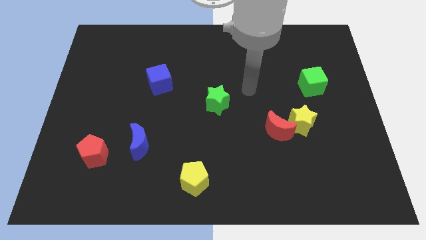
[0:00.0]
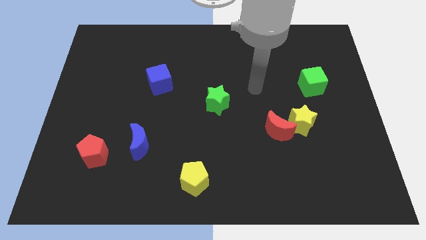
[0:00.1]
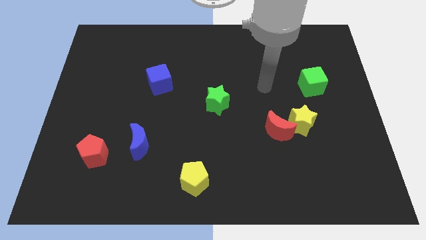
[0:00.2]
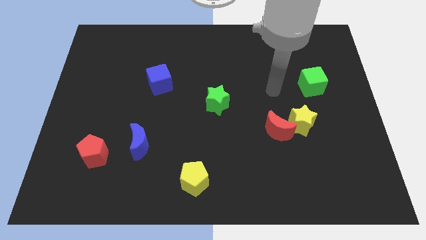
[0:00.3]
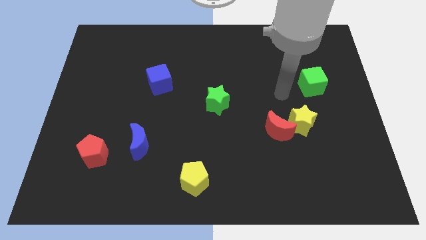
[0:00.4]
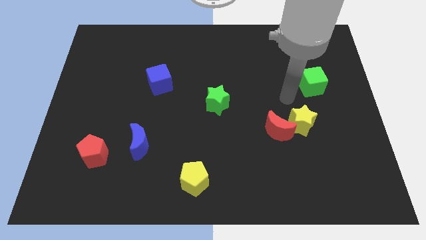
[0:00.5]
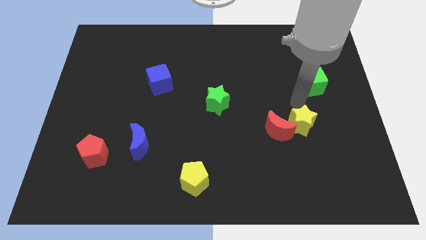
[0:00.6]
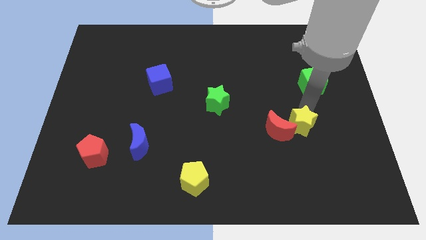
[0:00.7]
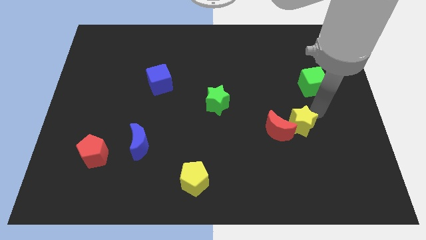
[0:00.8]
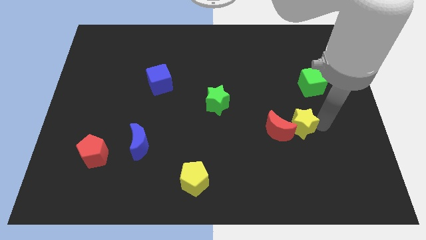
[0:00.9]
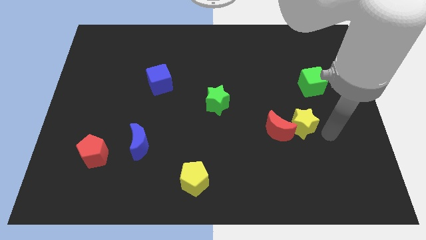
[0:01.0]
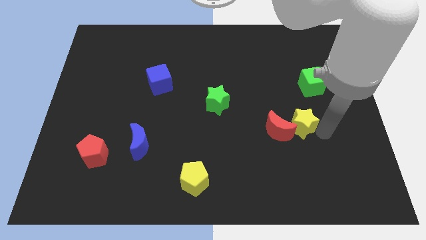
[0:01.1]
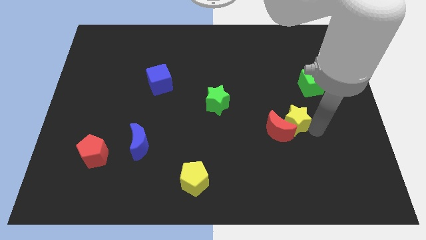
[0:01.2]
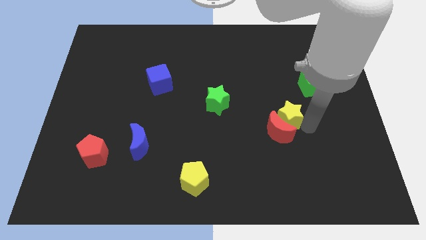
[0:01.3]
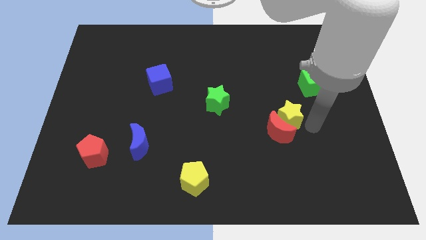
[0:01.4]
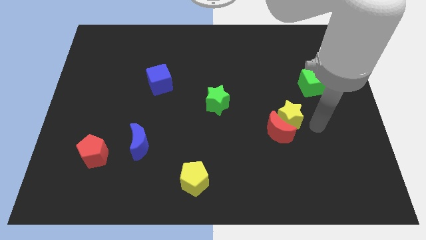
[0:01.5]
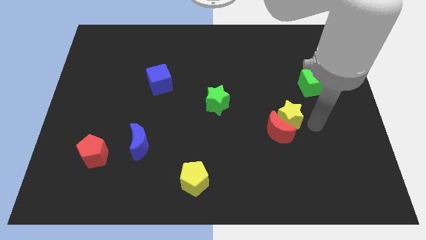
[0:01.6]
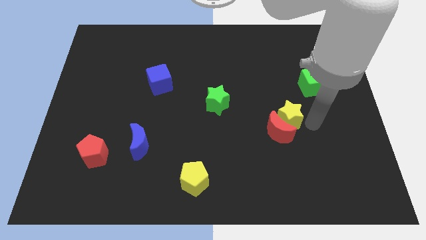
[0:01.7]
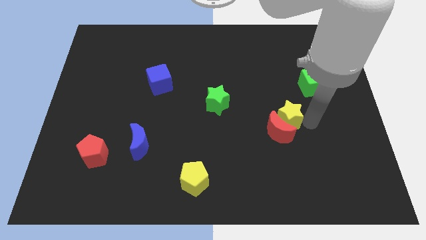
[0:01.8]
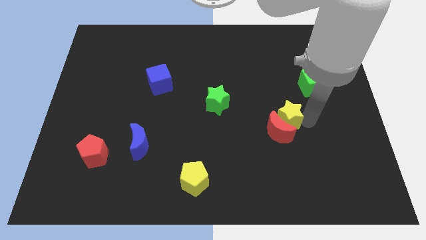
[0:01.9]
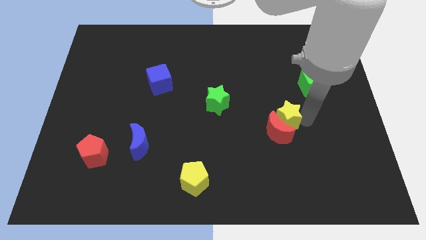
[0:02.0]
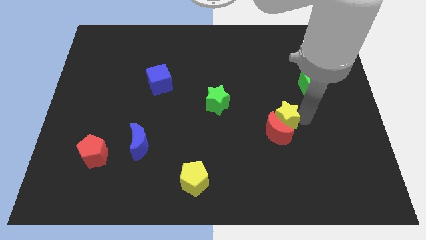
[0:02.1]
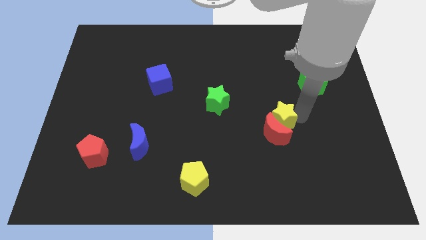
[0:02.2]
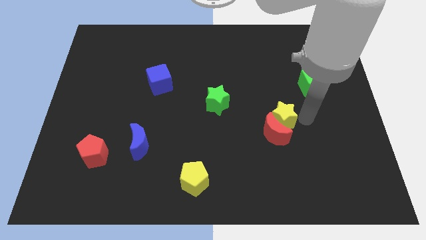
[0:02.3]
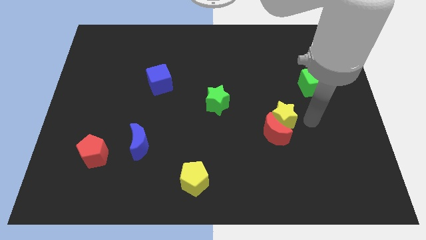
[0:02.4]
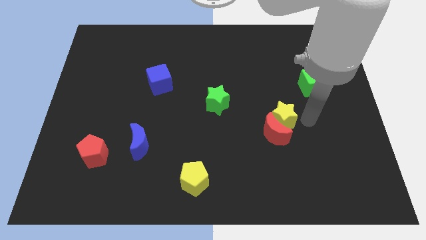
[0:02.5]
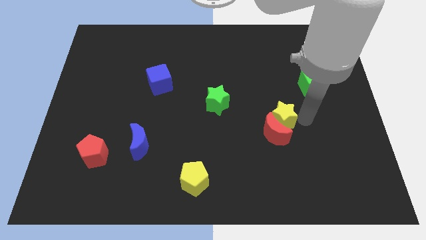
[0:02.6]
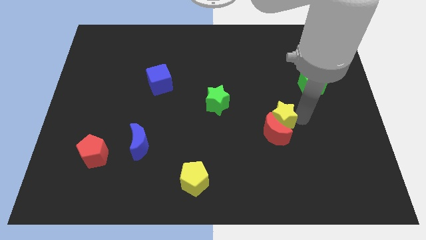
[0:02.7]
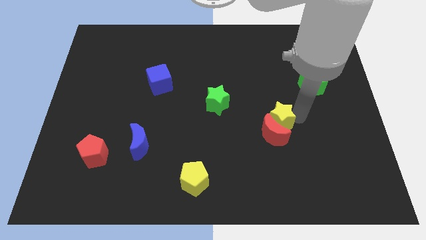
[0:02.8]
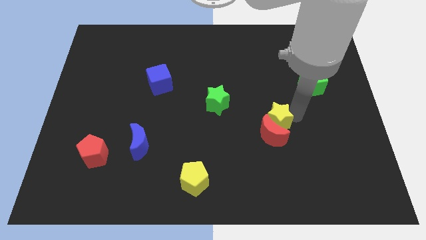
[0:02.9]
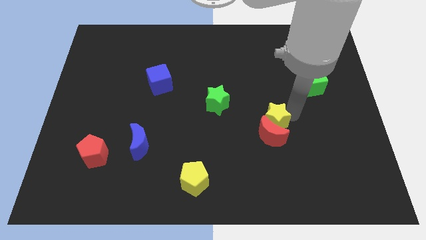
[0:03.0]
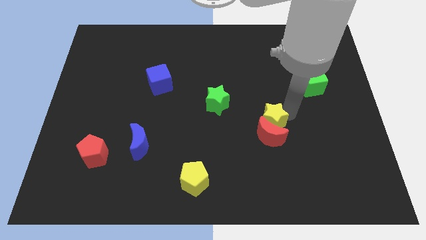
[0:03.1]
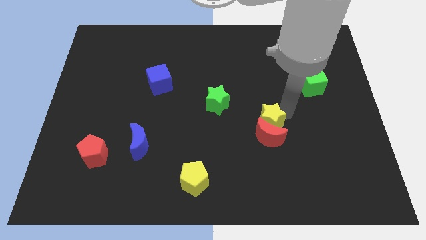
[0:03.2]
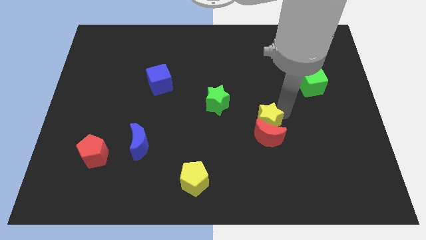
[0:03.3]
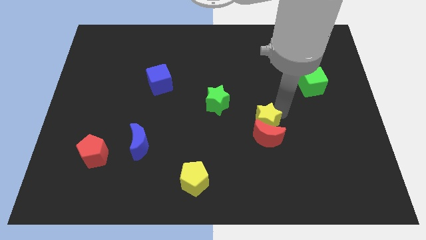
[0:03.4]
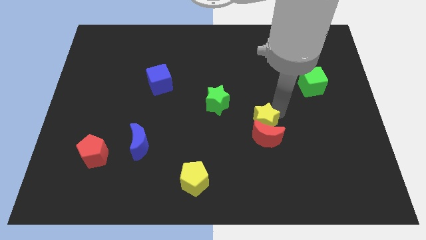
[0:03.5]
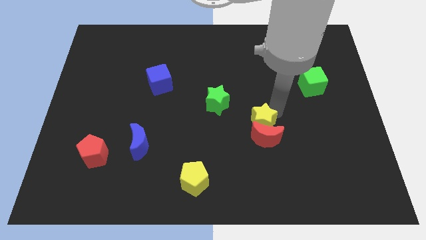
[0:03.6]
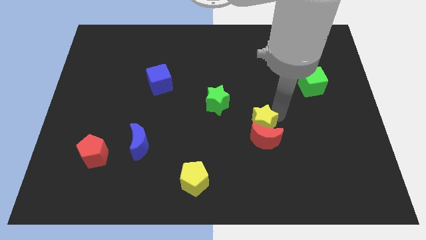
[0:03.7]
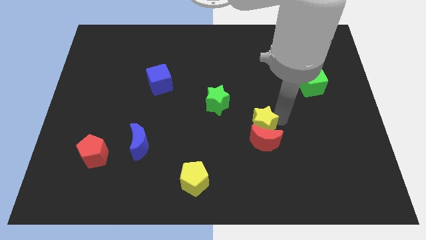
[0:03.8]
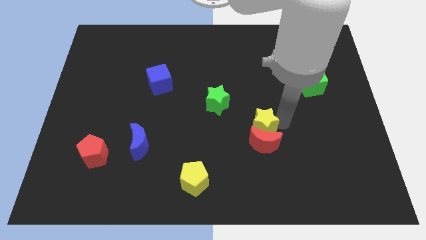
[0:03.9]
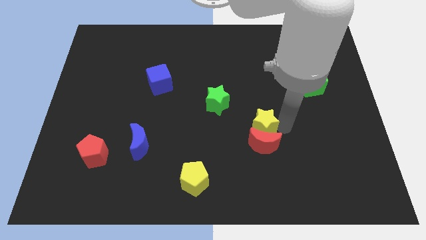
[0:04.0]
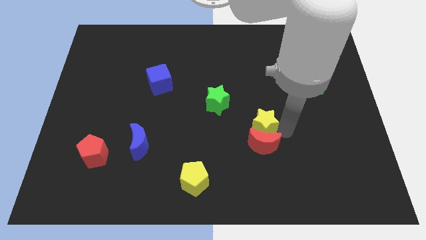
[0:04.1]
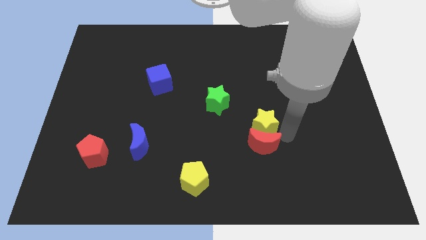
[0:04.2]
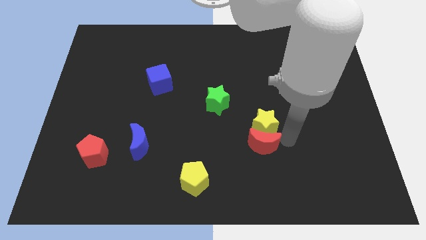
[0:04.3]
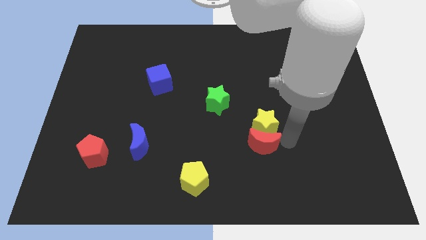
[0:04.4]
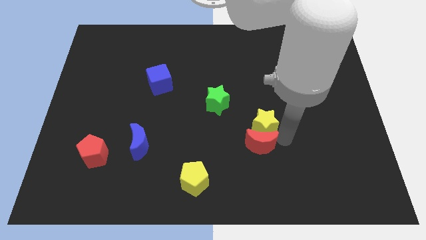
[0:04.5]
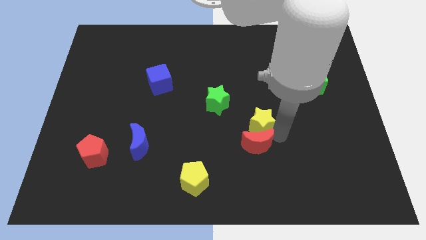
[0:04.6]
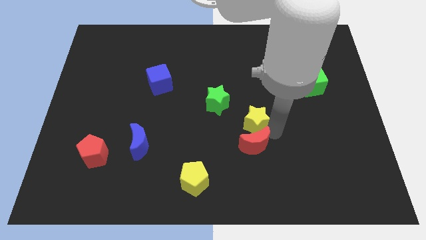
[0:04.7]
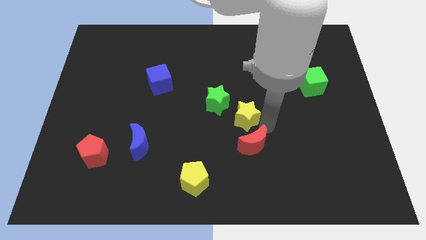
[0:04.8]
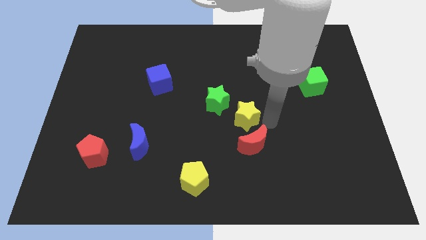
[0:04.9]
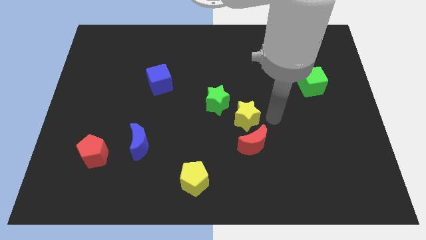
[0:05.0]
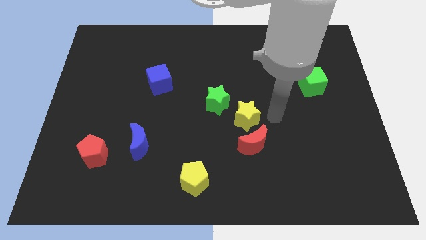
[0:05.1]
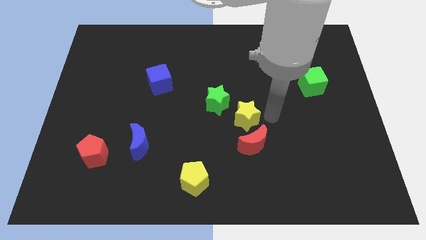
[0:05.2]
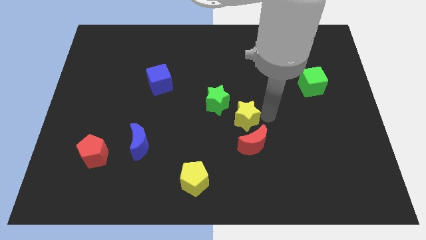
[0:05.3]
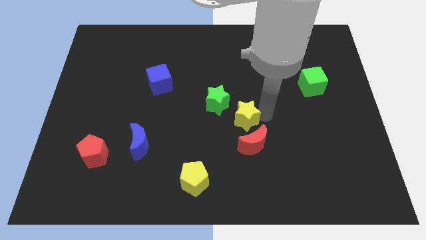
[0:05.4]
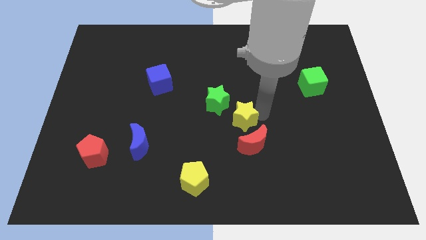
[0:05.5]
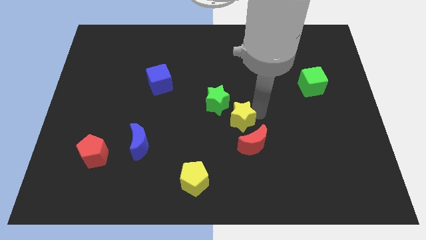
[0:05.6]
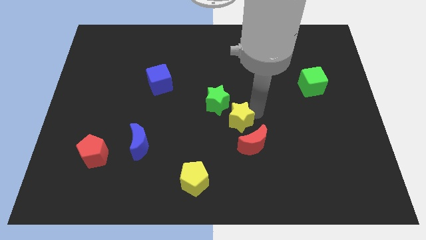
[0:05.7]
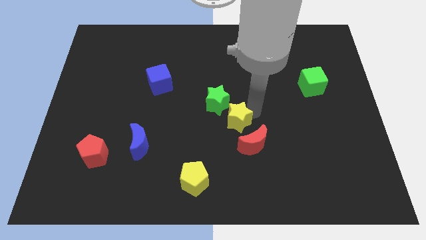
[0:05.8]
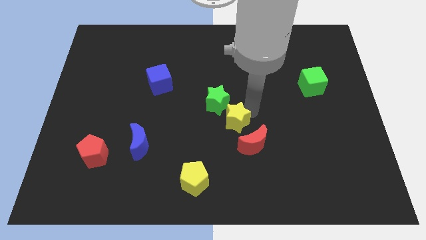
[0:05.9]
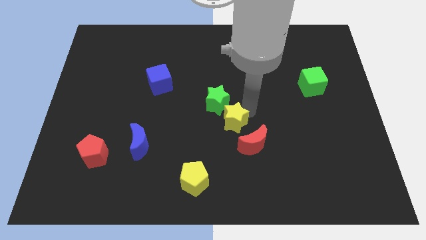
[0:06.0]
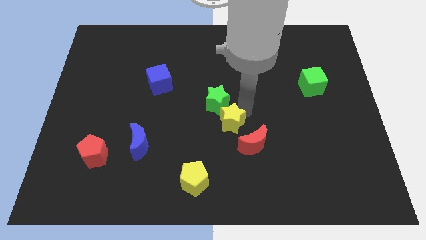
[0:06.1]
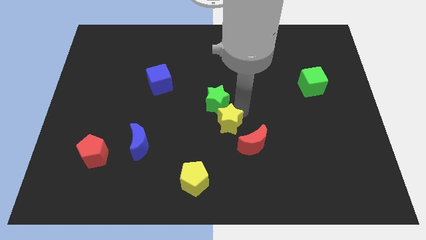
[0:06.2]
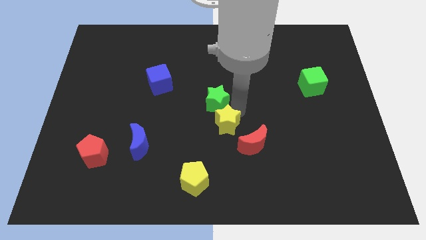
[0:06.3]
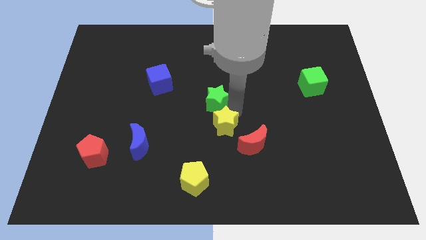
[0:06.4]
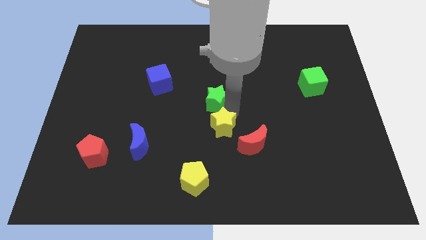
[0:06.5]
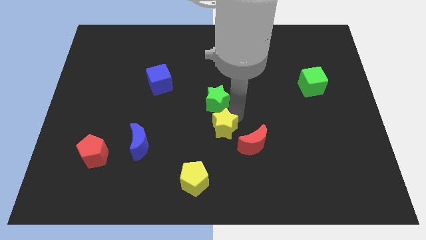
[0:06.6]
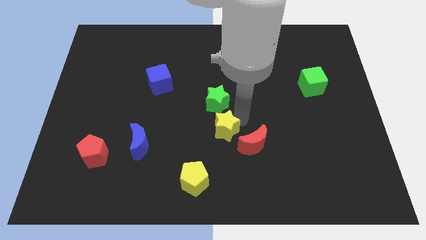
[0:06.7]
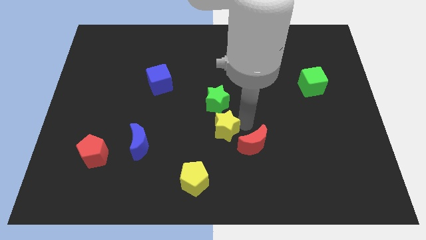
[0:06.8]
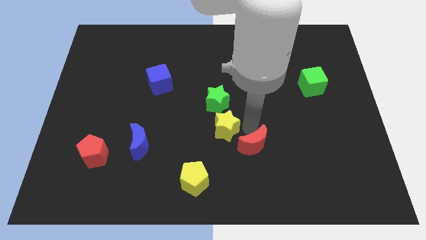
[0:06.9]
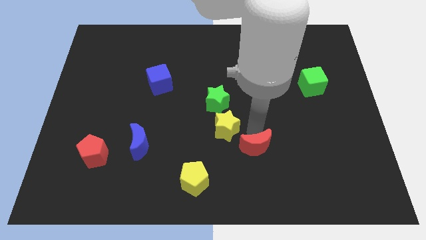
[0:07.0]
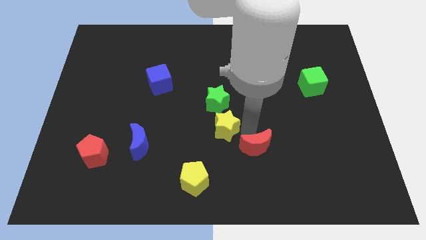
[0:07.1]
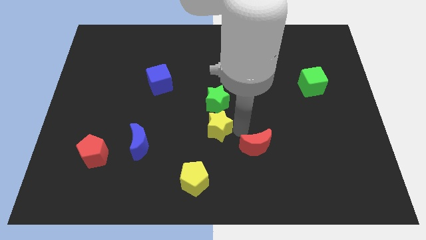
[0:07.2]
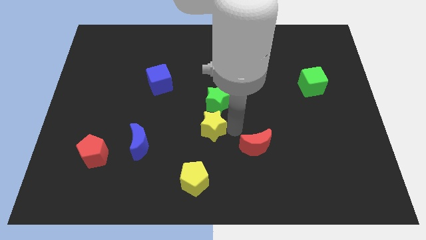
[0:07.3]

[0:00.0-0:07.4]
push the yellow star to the left

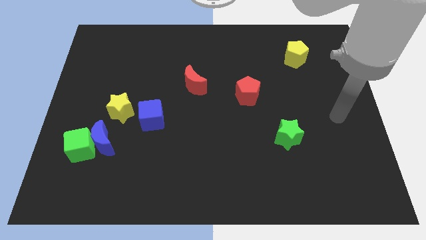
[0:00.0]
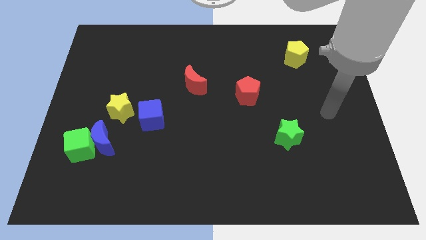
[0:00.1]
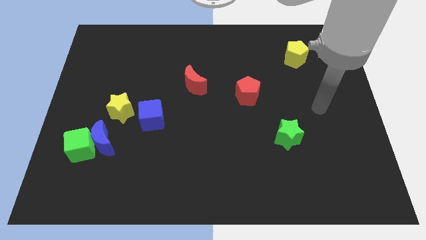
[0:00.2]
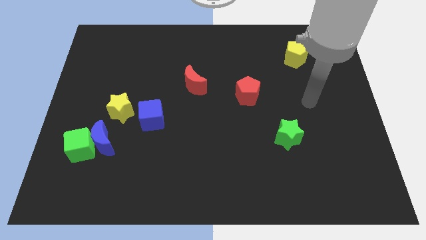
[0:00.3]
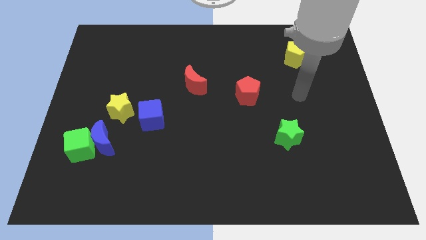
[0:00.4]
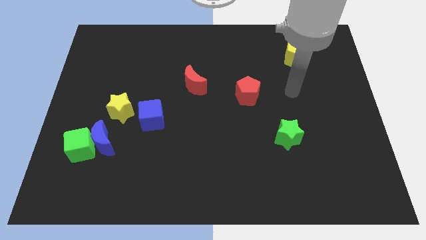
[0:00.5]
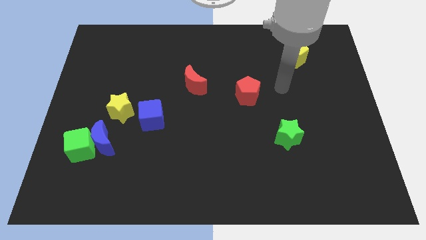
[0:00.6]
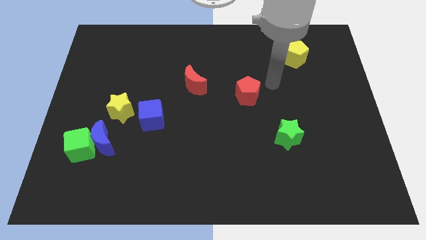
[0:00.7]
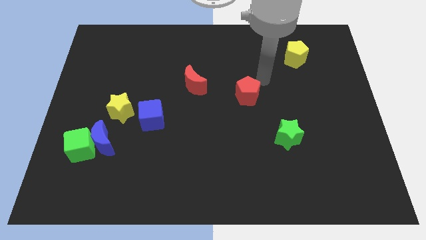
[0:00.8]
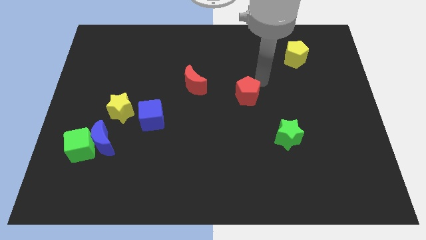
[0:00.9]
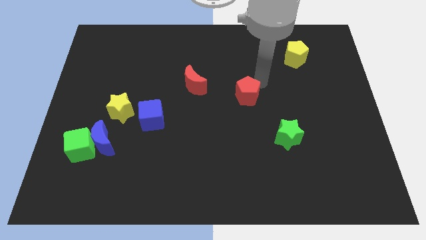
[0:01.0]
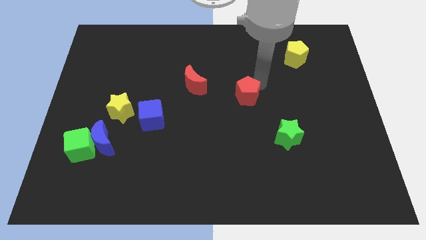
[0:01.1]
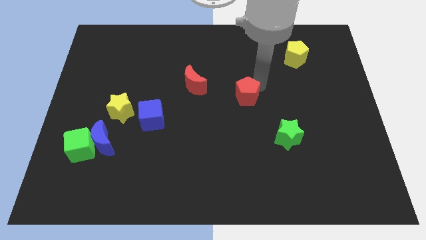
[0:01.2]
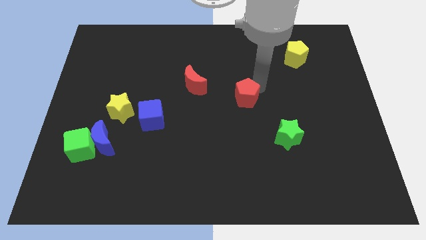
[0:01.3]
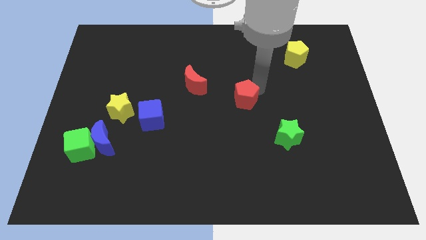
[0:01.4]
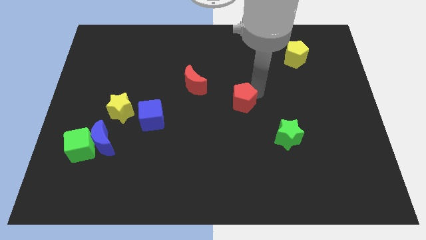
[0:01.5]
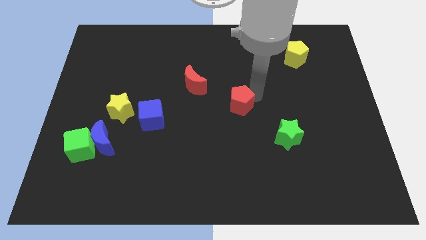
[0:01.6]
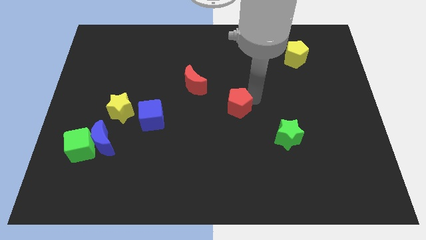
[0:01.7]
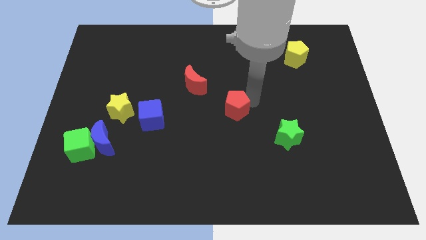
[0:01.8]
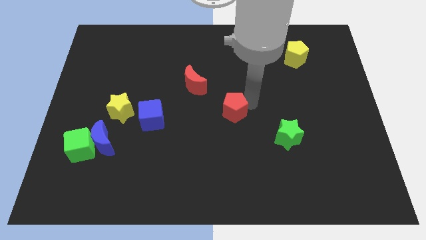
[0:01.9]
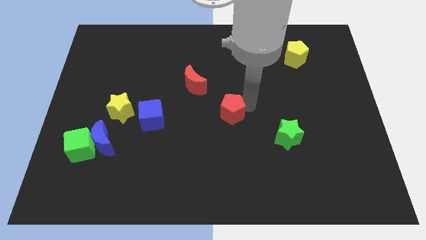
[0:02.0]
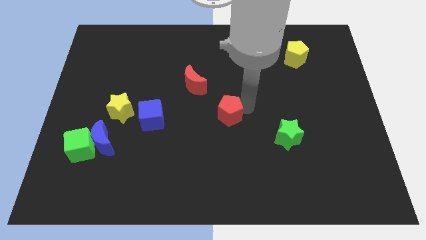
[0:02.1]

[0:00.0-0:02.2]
slide the red pentagon diagonally down and left a bit
